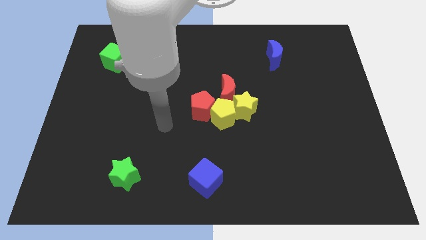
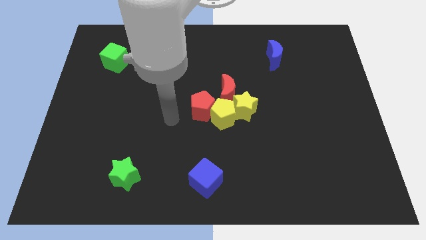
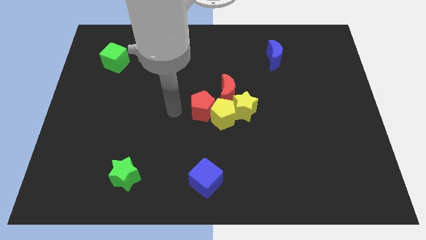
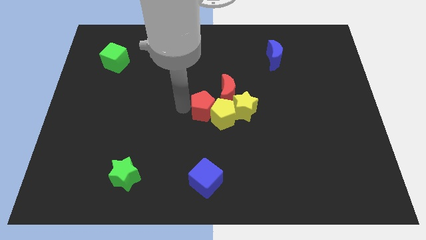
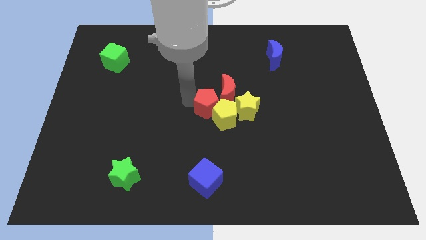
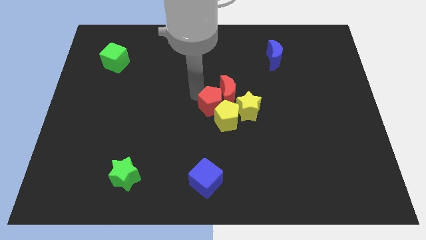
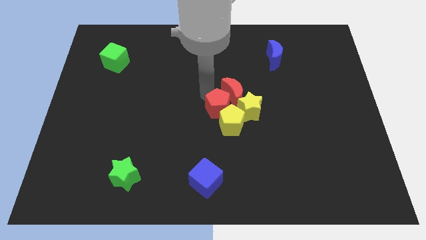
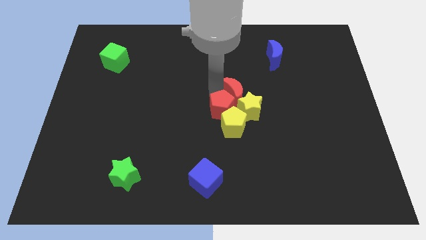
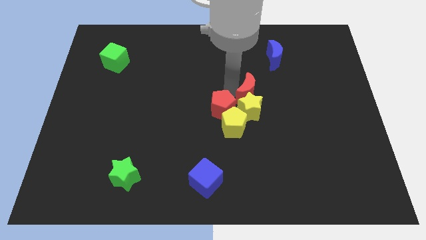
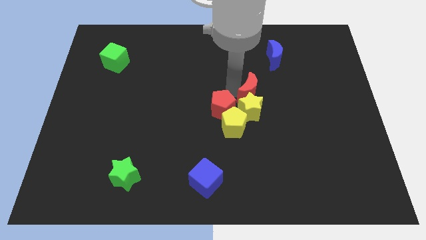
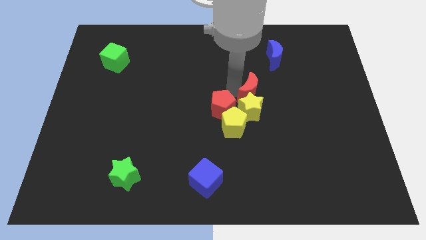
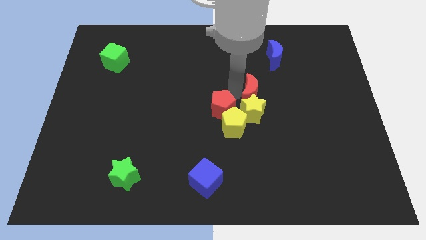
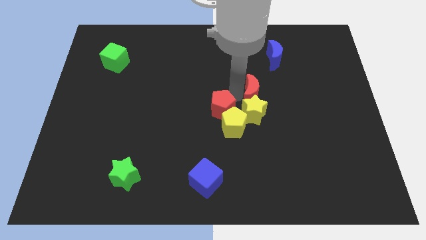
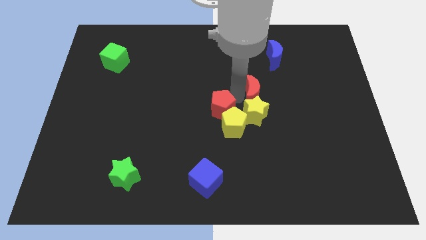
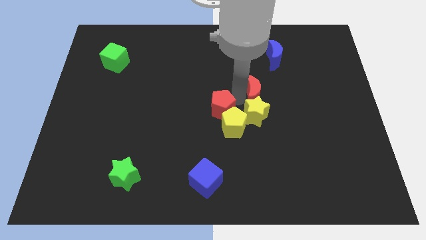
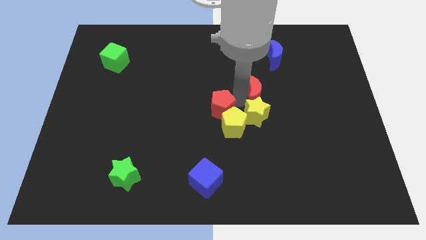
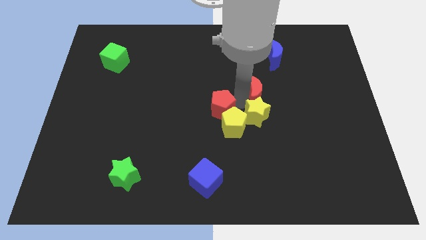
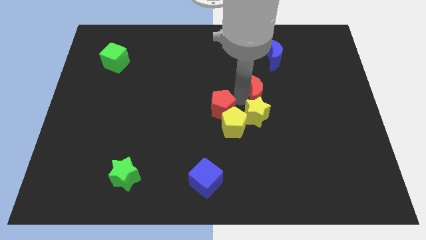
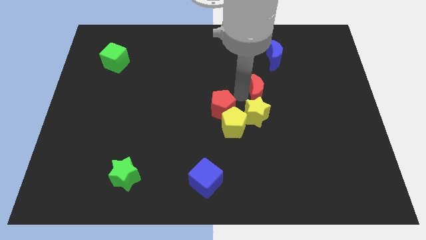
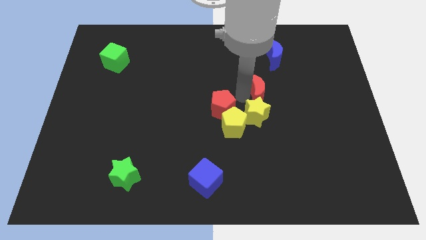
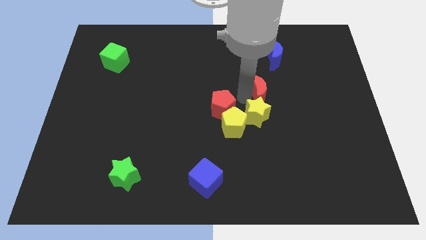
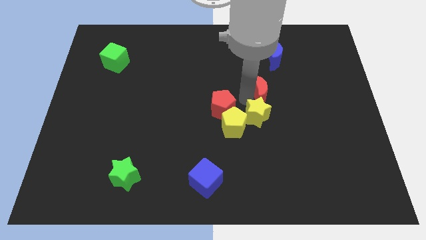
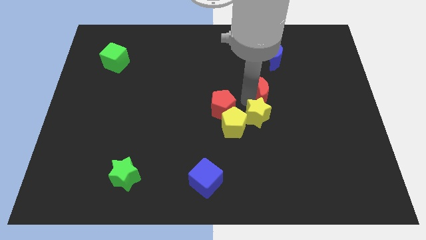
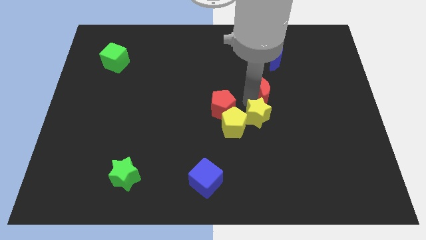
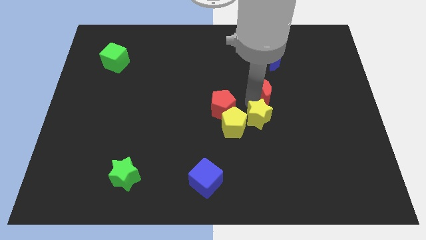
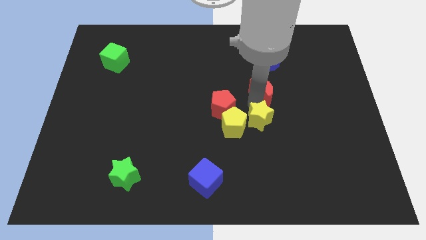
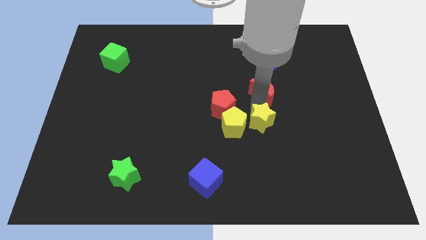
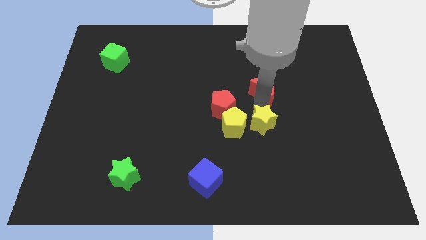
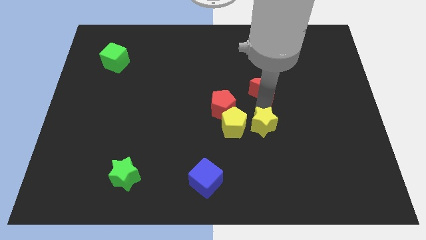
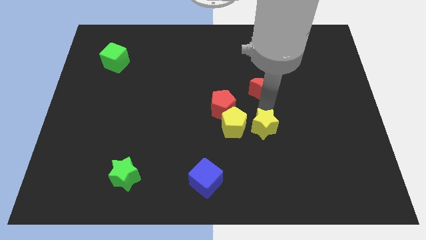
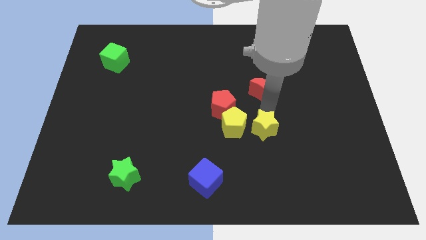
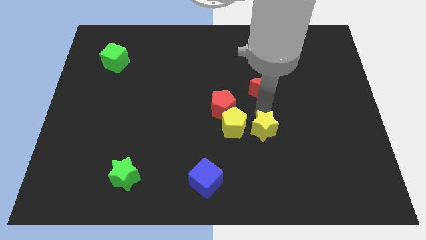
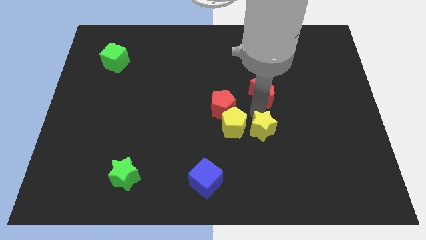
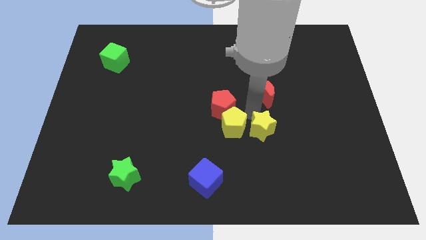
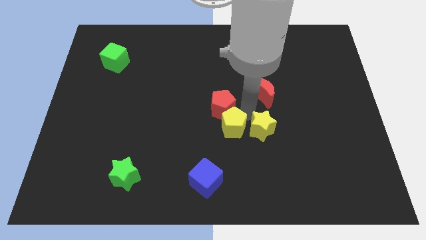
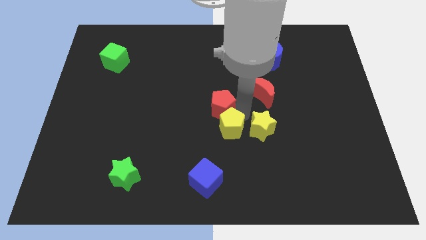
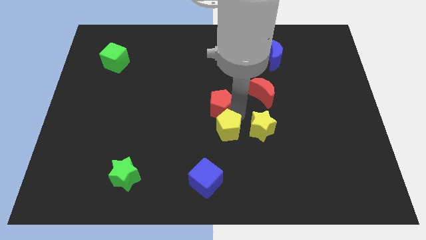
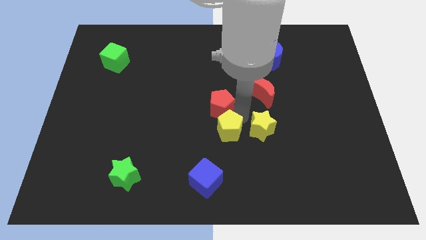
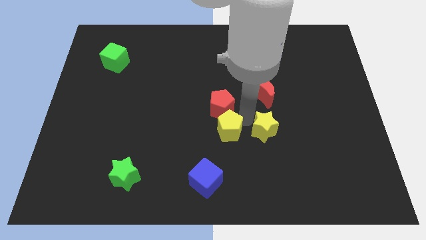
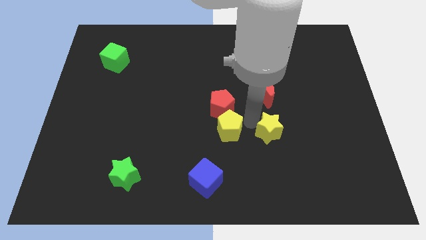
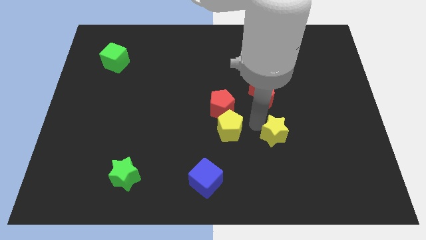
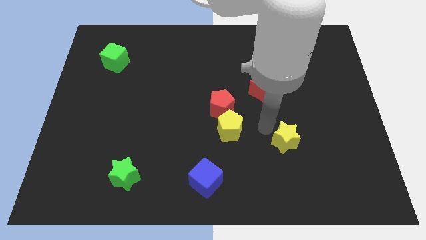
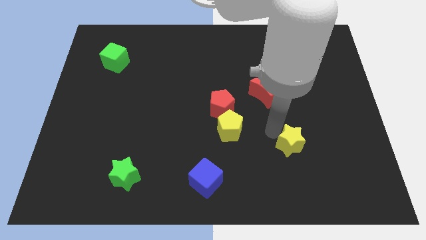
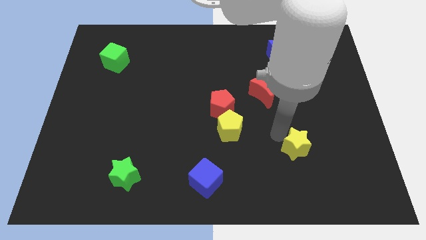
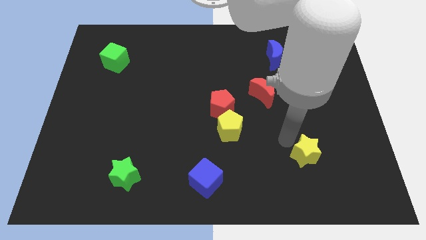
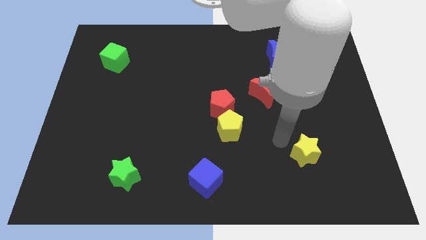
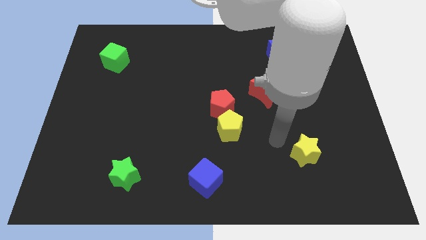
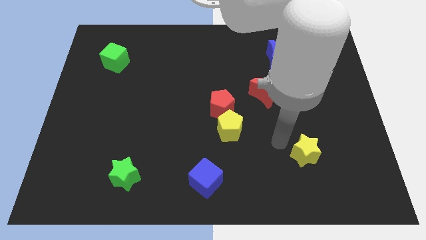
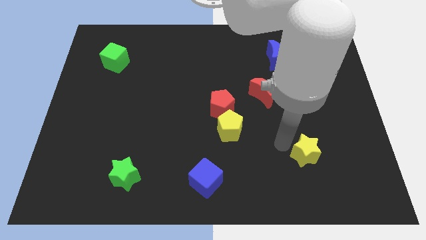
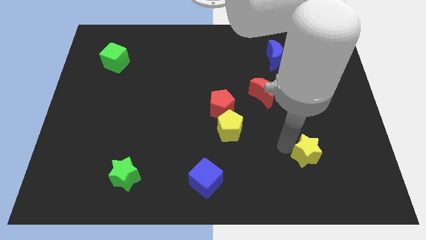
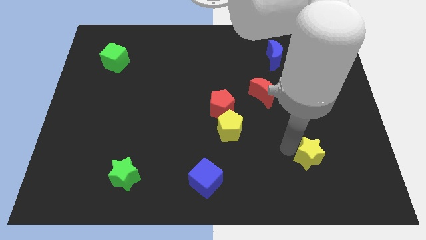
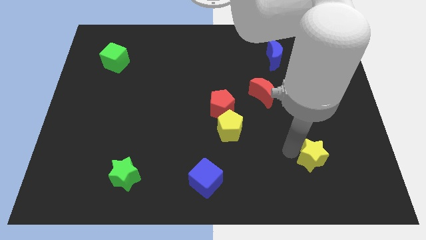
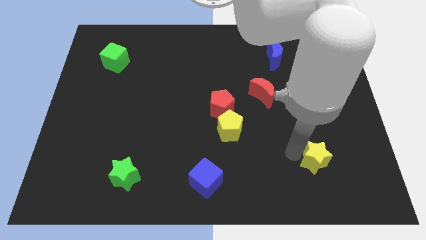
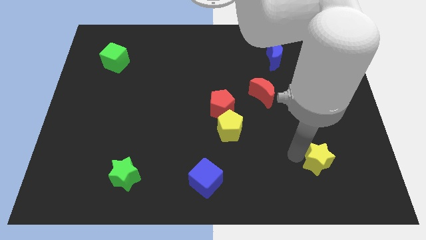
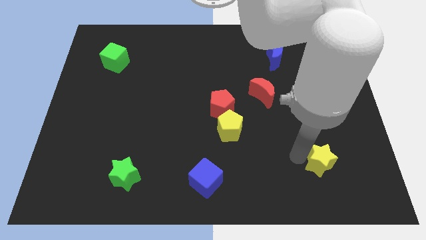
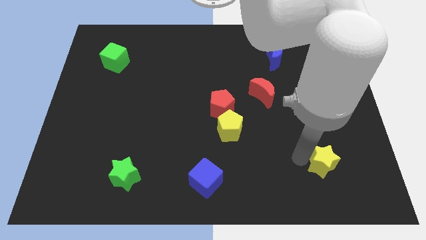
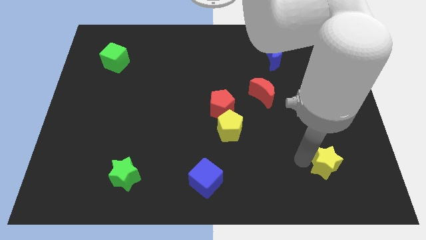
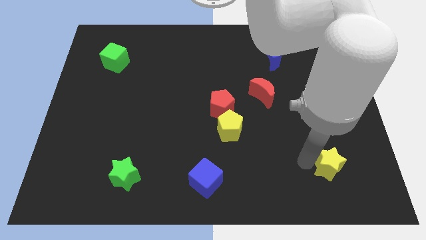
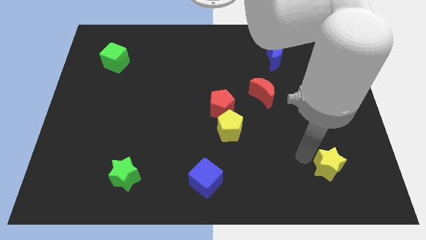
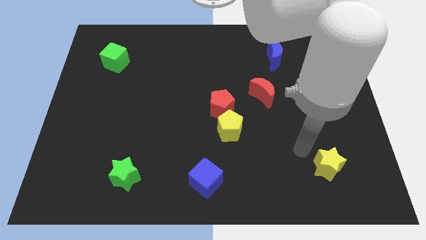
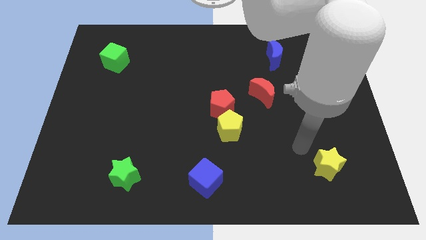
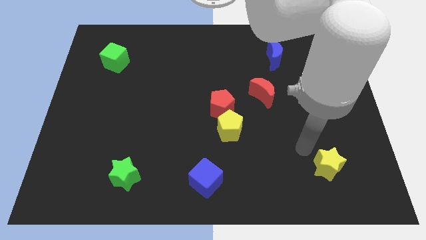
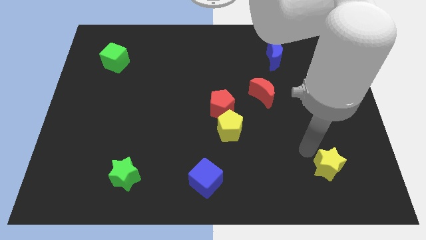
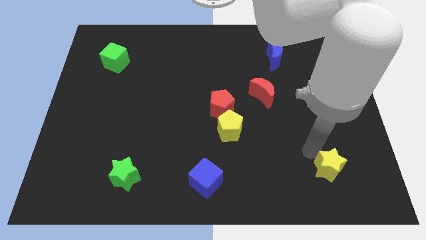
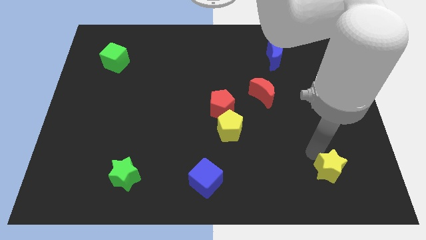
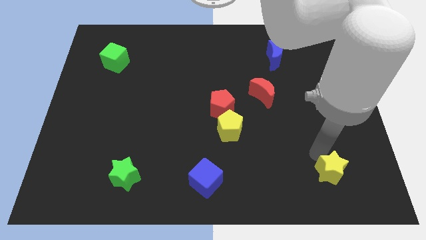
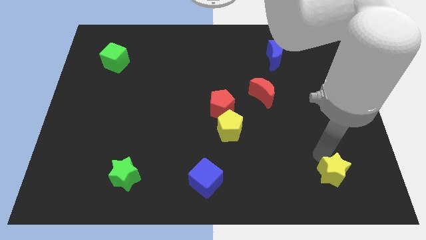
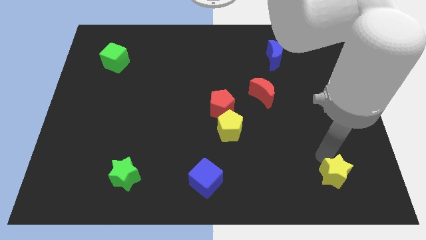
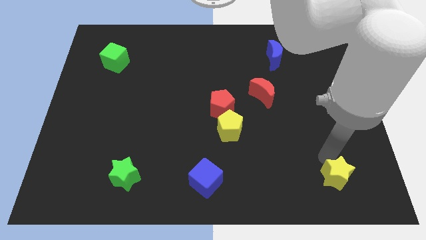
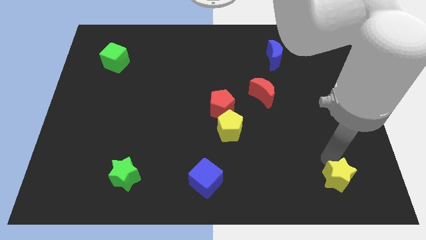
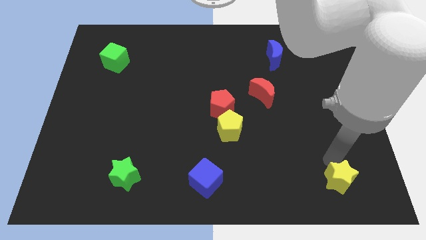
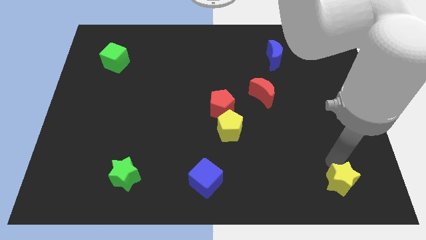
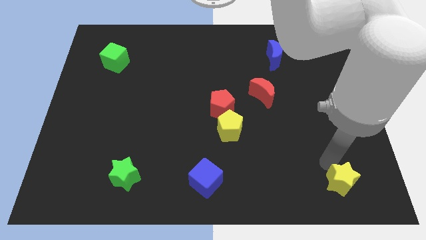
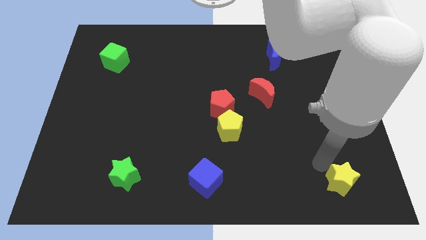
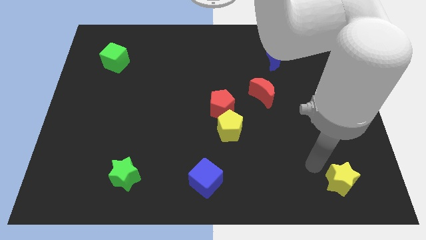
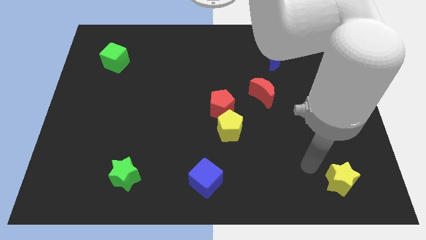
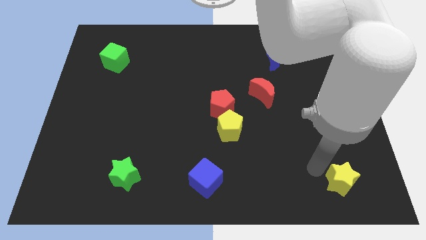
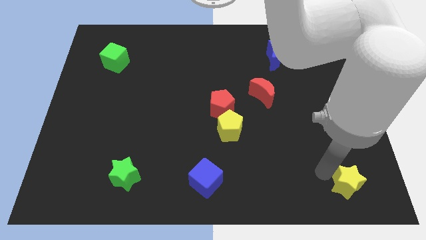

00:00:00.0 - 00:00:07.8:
slide the yellow star to the bottom right corner
